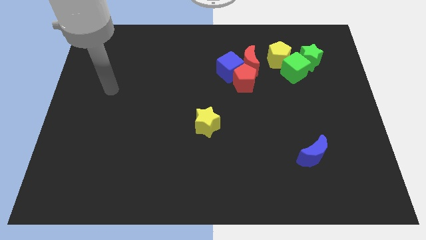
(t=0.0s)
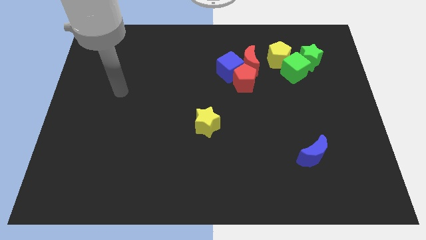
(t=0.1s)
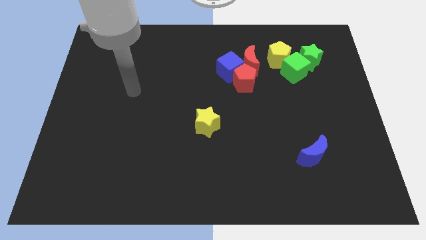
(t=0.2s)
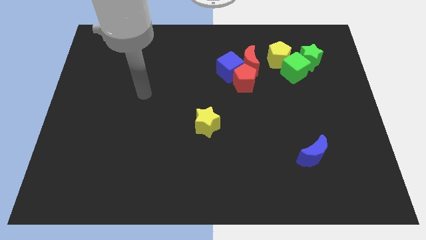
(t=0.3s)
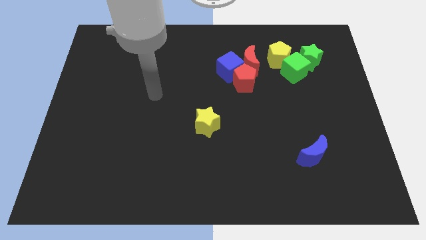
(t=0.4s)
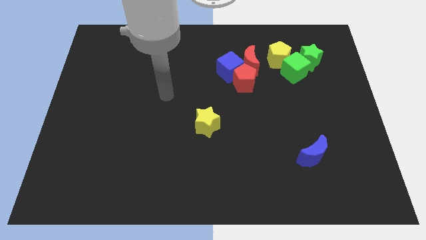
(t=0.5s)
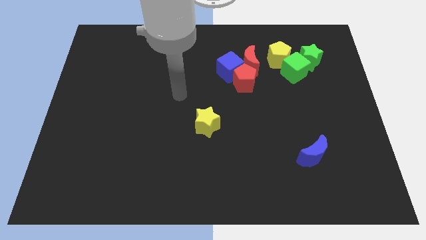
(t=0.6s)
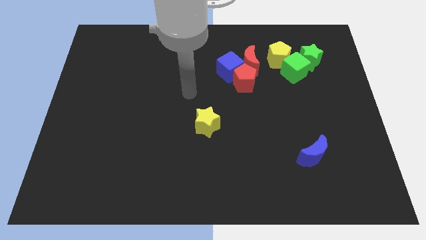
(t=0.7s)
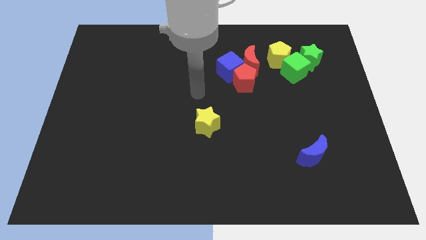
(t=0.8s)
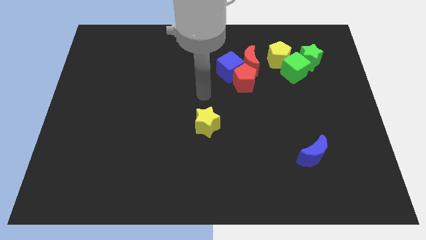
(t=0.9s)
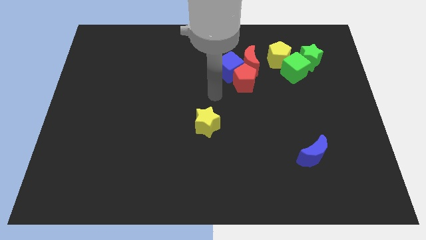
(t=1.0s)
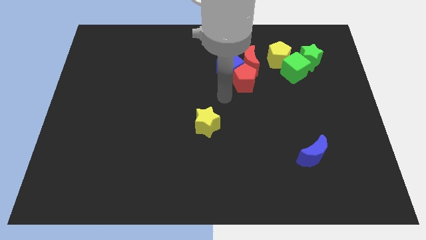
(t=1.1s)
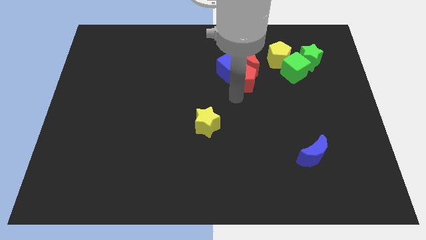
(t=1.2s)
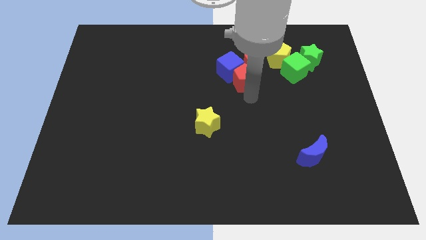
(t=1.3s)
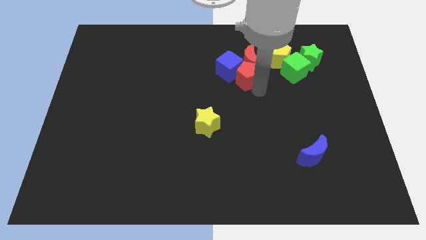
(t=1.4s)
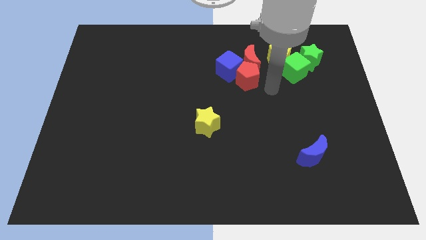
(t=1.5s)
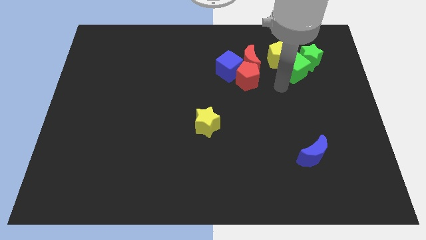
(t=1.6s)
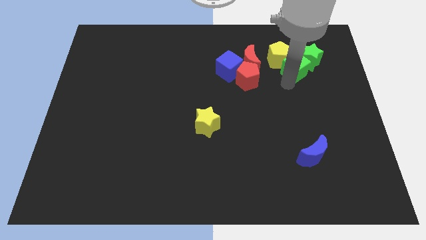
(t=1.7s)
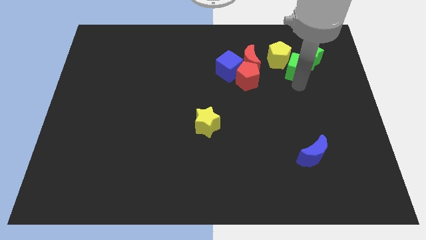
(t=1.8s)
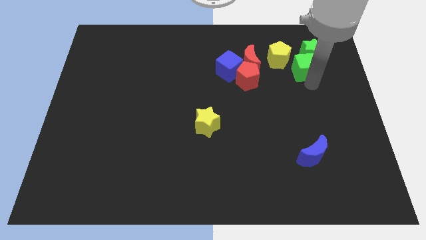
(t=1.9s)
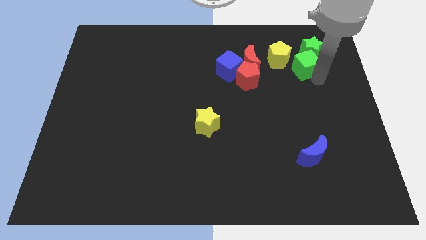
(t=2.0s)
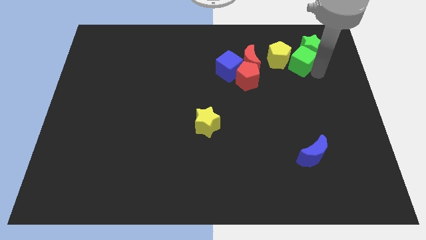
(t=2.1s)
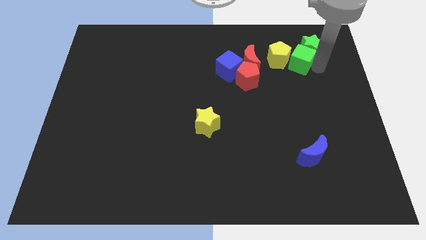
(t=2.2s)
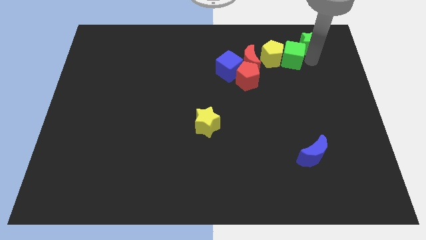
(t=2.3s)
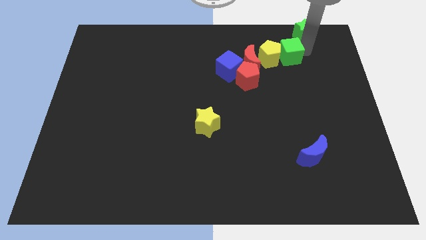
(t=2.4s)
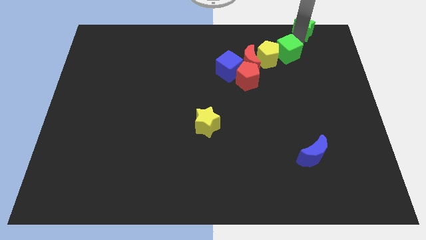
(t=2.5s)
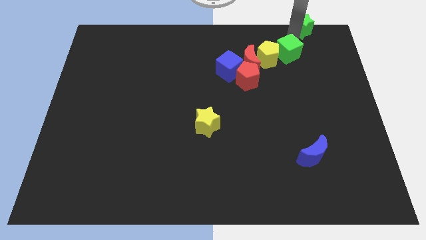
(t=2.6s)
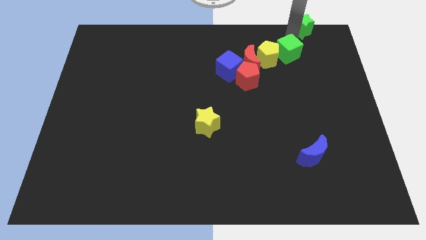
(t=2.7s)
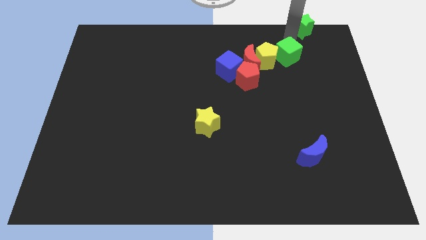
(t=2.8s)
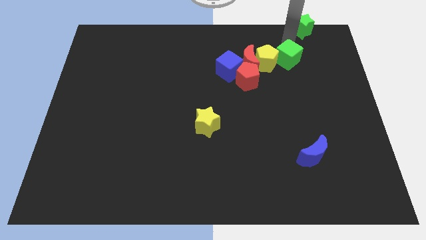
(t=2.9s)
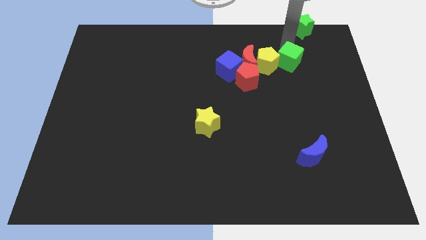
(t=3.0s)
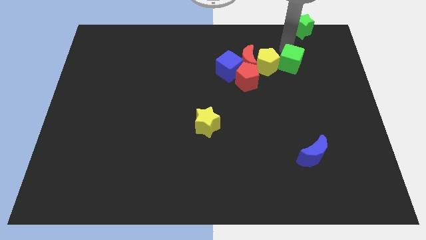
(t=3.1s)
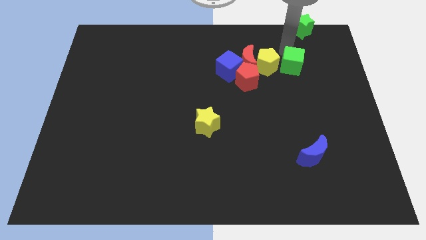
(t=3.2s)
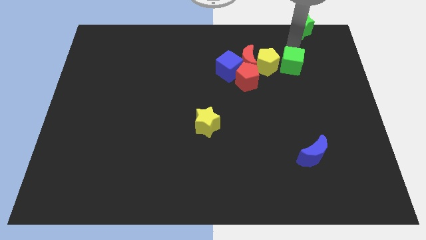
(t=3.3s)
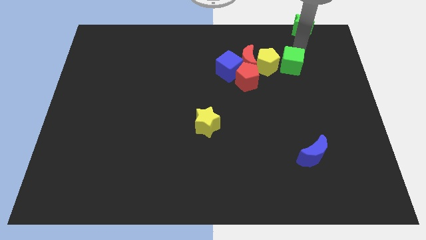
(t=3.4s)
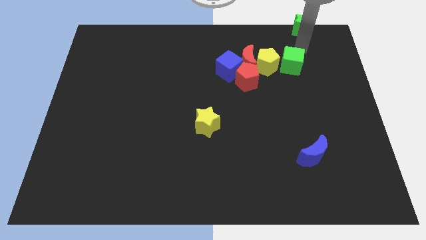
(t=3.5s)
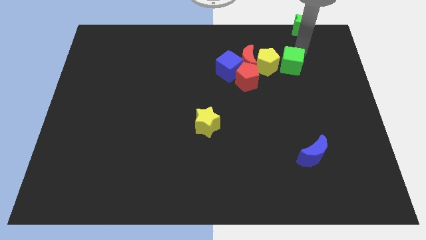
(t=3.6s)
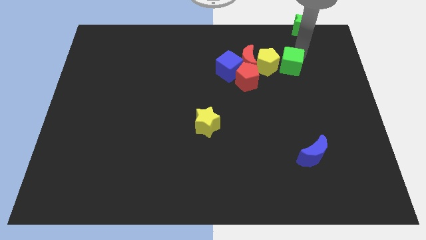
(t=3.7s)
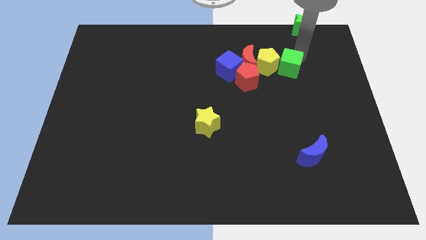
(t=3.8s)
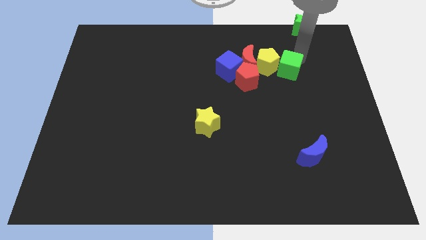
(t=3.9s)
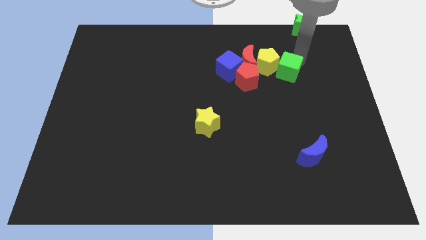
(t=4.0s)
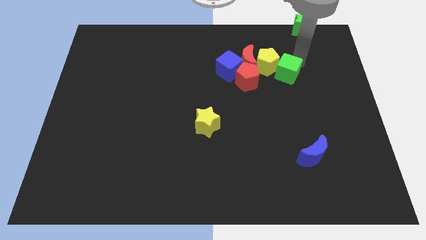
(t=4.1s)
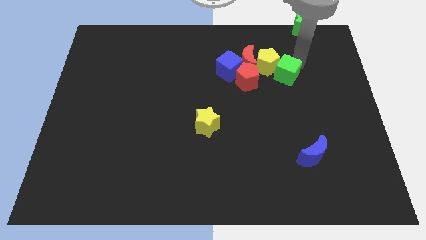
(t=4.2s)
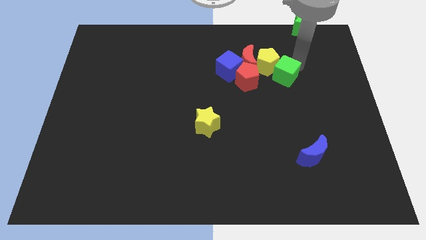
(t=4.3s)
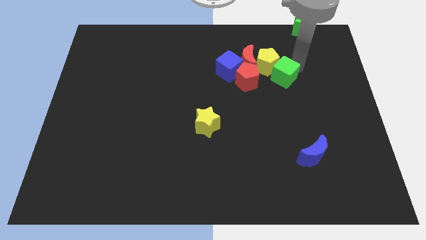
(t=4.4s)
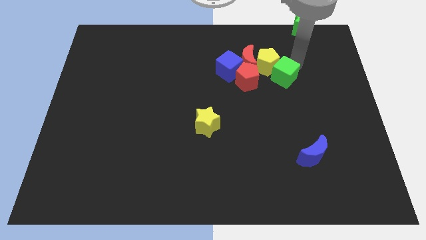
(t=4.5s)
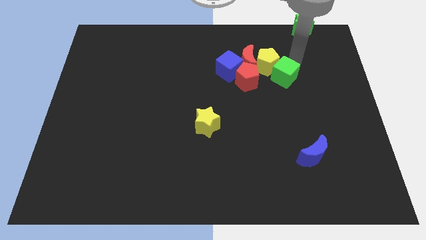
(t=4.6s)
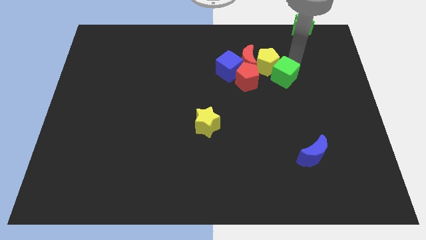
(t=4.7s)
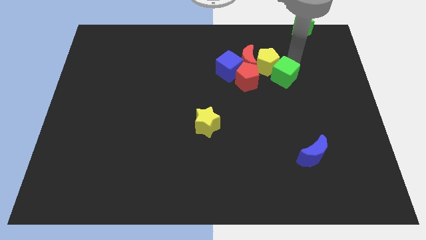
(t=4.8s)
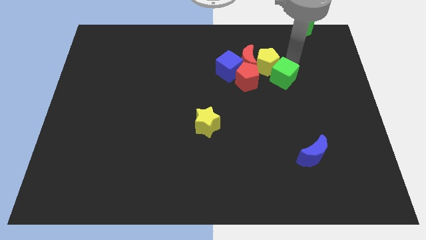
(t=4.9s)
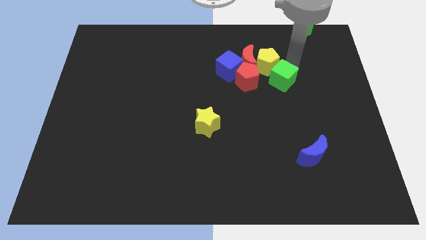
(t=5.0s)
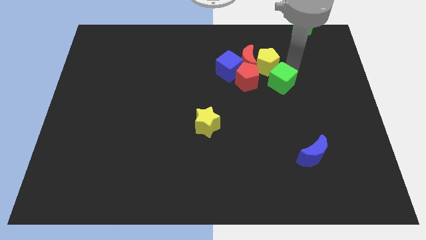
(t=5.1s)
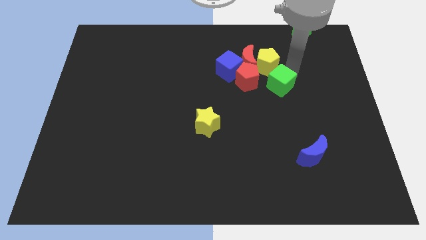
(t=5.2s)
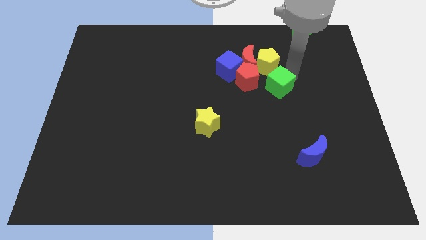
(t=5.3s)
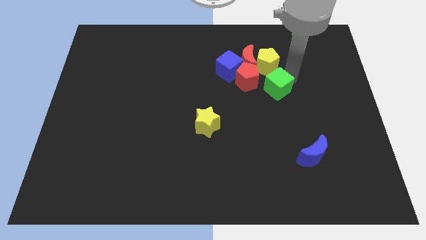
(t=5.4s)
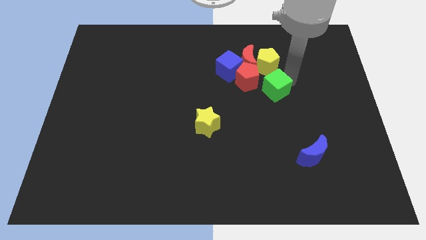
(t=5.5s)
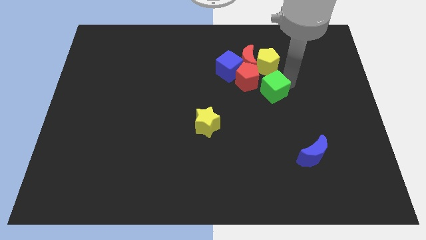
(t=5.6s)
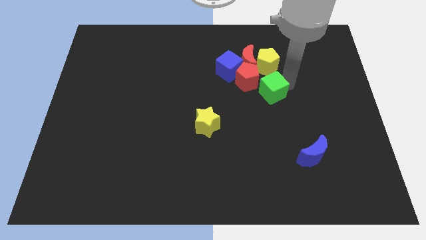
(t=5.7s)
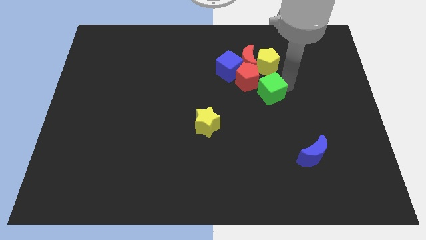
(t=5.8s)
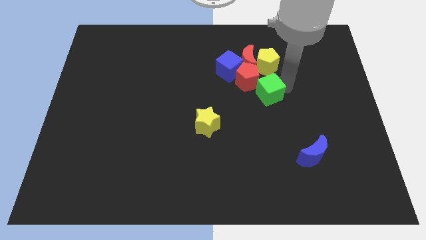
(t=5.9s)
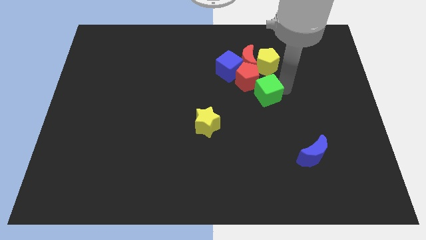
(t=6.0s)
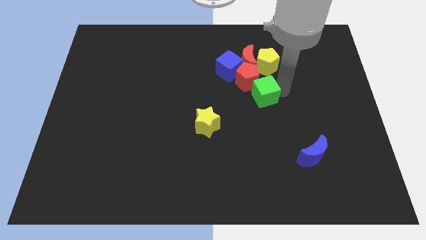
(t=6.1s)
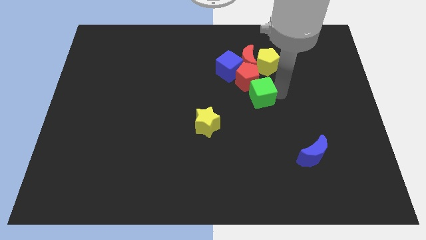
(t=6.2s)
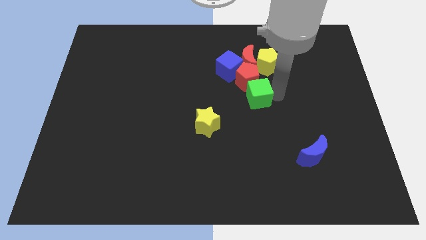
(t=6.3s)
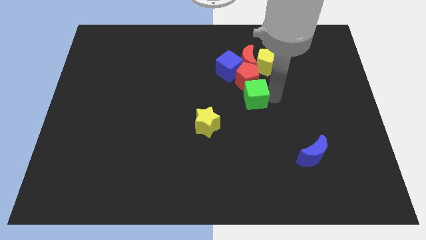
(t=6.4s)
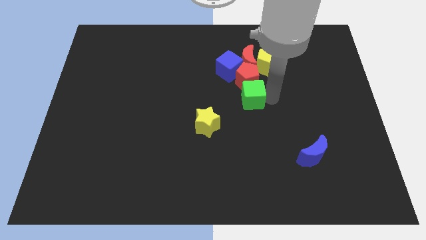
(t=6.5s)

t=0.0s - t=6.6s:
push the green cube to the bottom left of the red pentagon

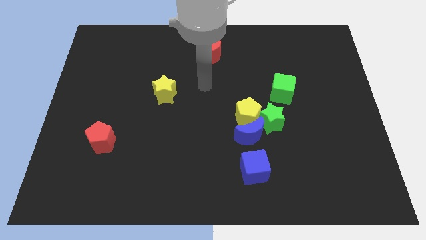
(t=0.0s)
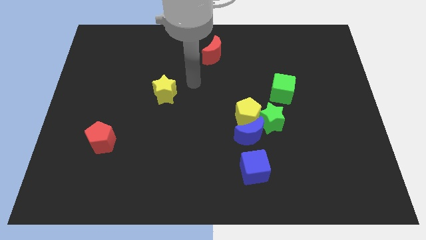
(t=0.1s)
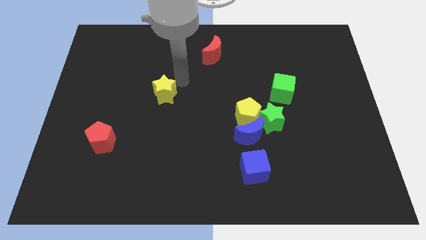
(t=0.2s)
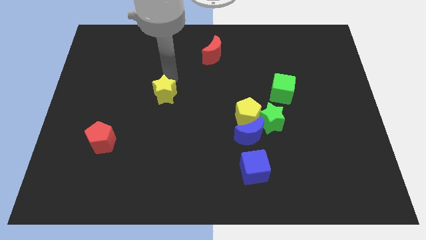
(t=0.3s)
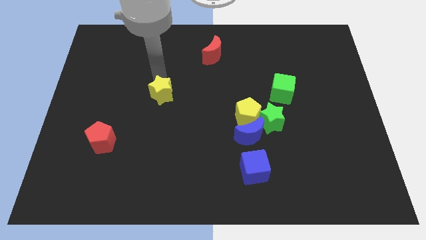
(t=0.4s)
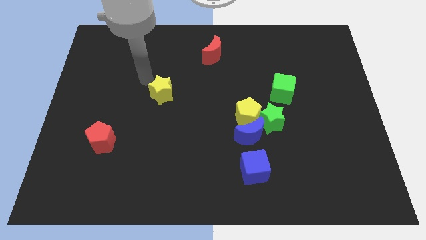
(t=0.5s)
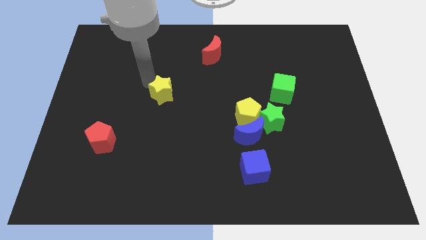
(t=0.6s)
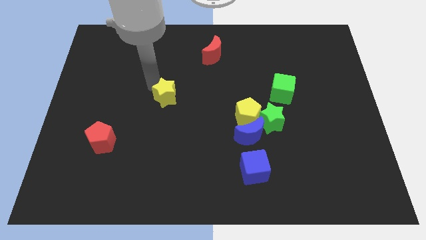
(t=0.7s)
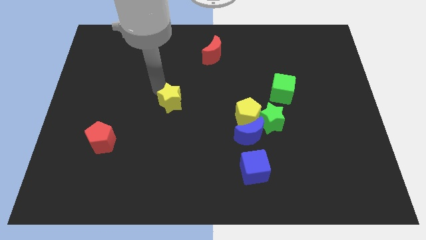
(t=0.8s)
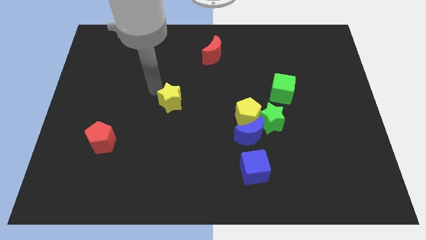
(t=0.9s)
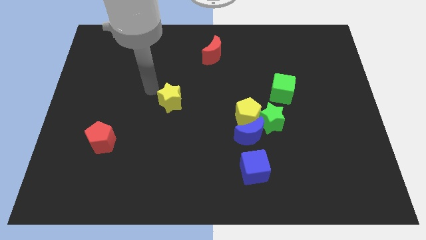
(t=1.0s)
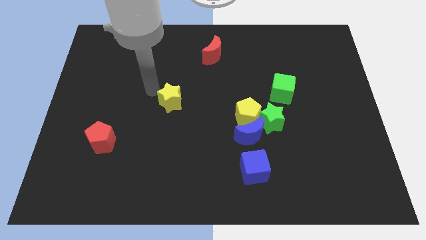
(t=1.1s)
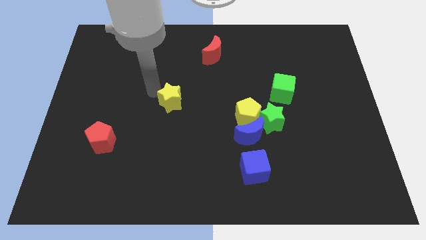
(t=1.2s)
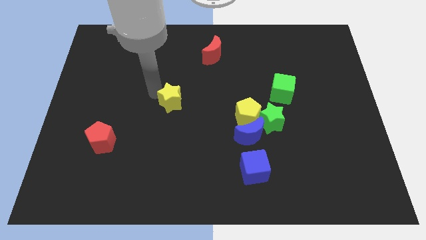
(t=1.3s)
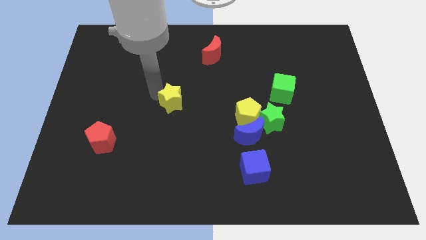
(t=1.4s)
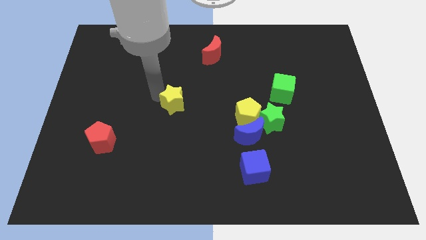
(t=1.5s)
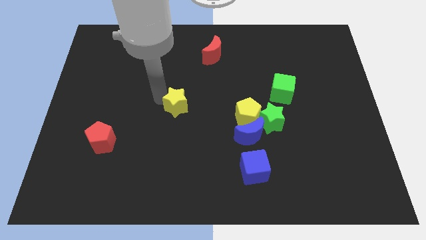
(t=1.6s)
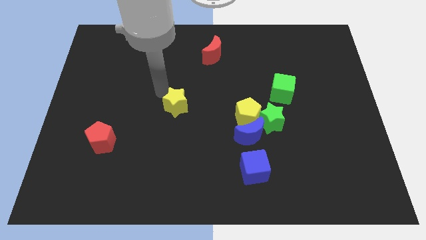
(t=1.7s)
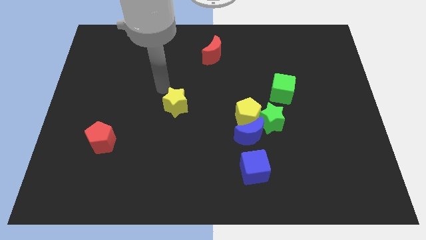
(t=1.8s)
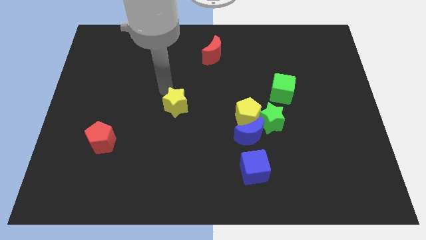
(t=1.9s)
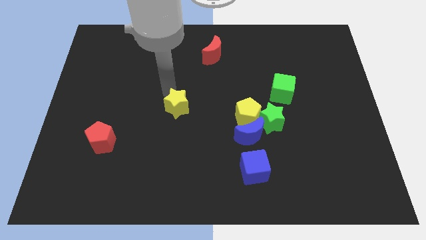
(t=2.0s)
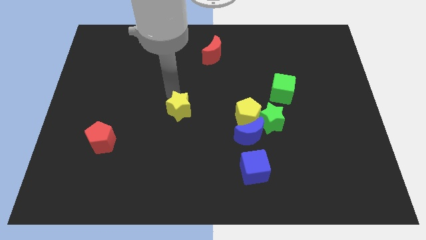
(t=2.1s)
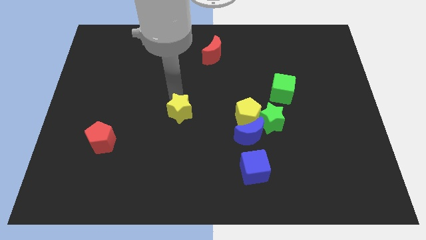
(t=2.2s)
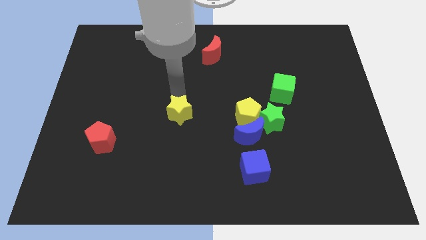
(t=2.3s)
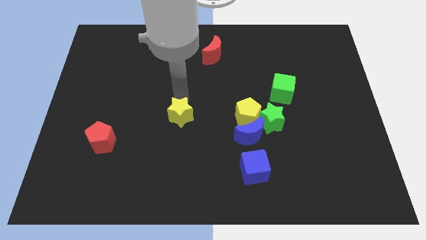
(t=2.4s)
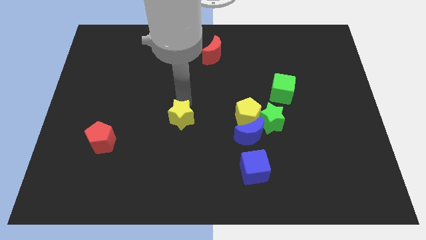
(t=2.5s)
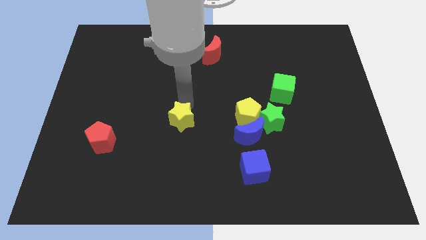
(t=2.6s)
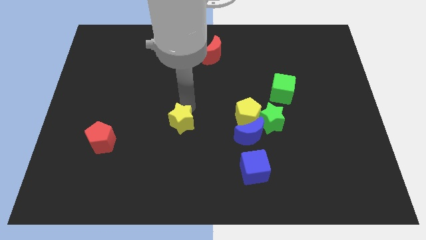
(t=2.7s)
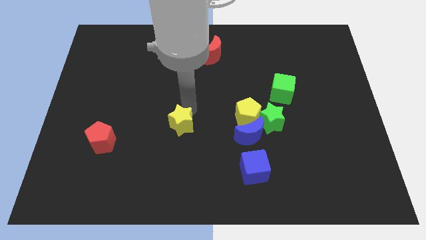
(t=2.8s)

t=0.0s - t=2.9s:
push the yellow star just left of the blue moon
